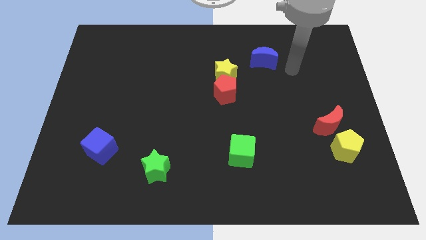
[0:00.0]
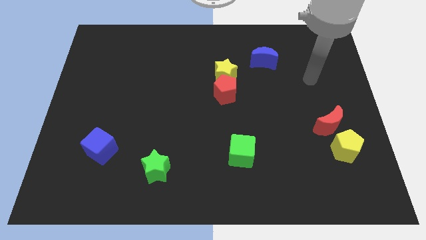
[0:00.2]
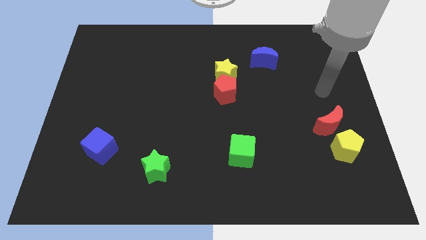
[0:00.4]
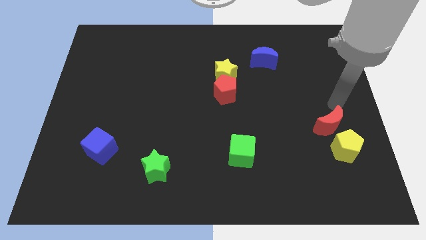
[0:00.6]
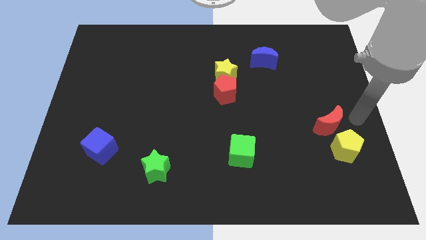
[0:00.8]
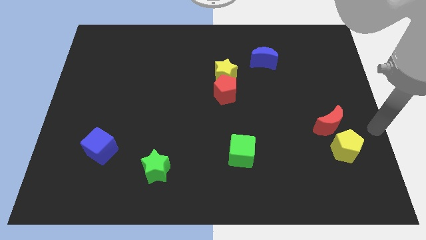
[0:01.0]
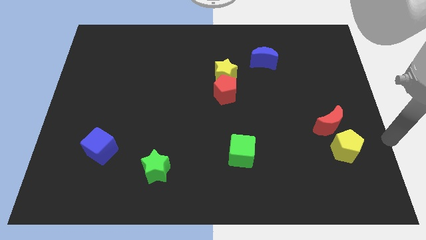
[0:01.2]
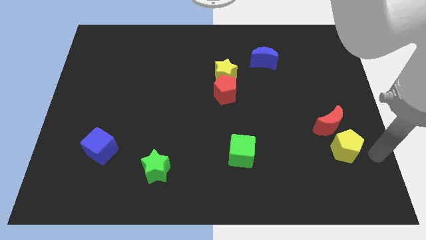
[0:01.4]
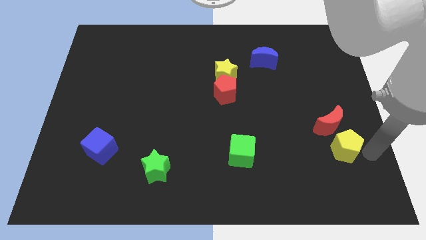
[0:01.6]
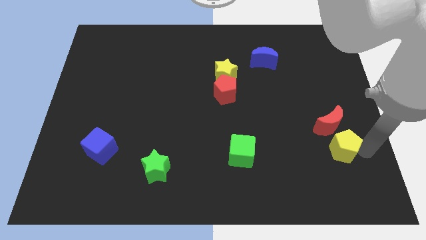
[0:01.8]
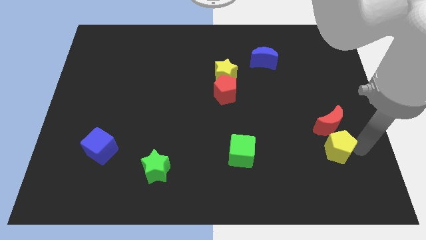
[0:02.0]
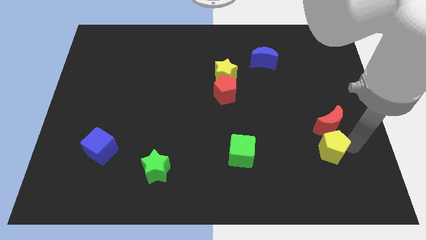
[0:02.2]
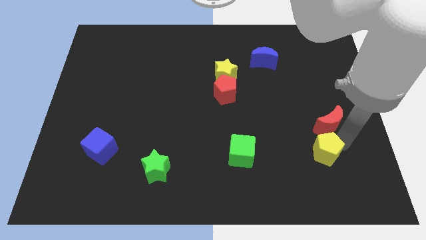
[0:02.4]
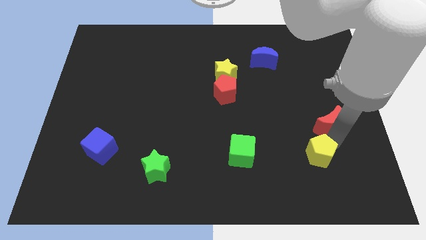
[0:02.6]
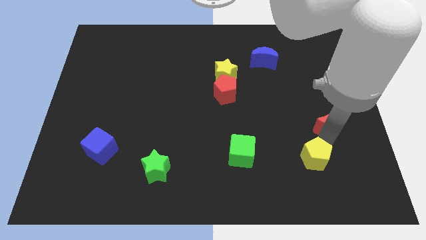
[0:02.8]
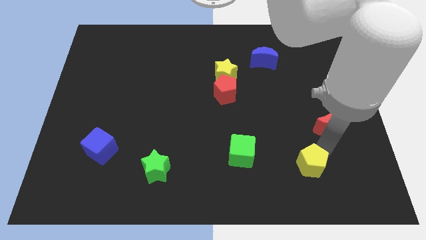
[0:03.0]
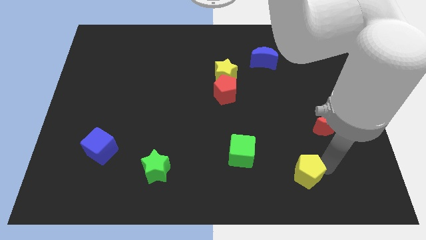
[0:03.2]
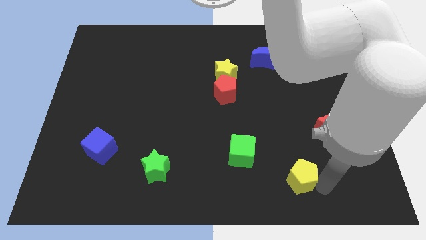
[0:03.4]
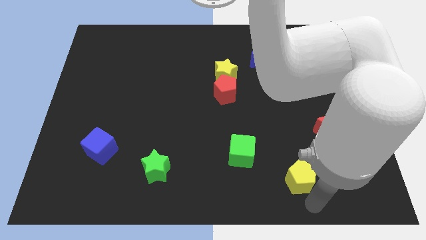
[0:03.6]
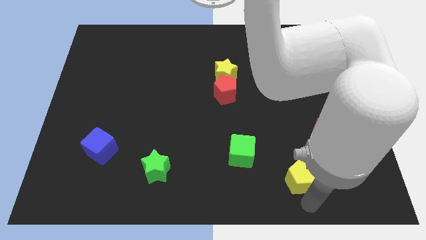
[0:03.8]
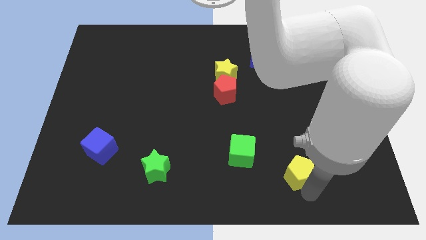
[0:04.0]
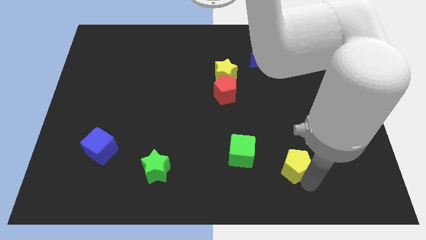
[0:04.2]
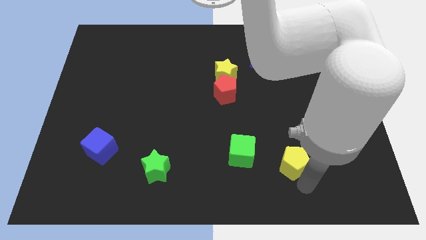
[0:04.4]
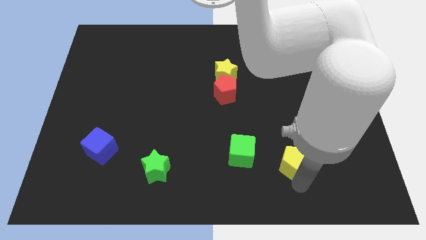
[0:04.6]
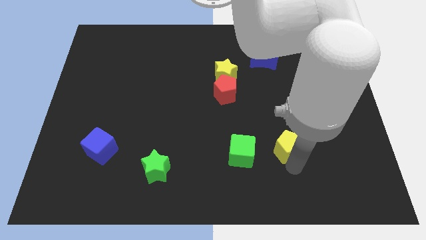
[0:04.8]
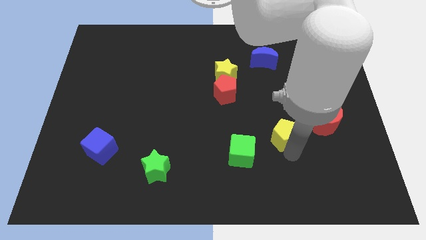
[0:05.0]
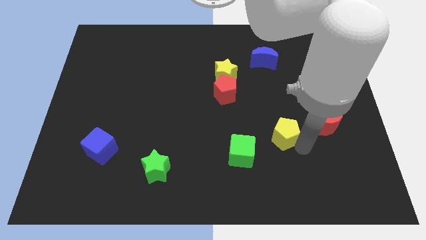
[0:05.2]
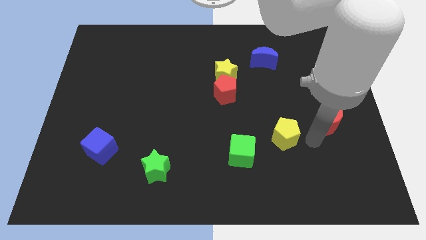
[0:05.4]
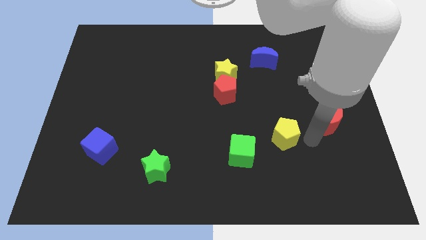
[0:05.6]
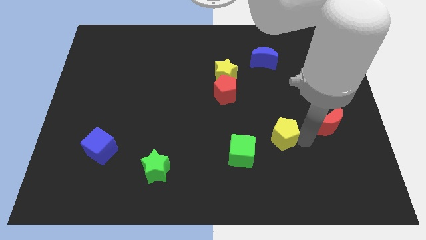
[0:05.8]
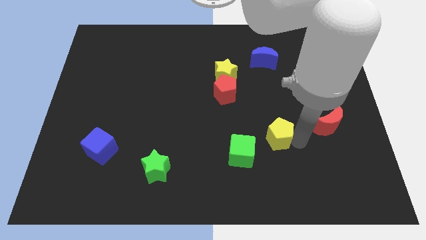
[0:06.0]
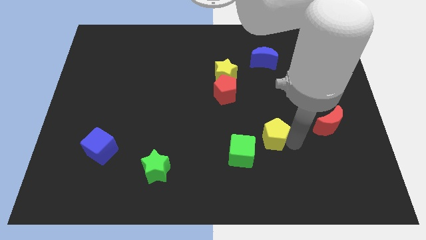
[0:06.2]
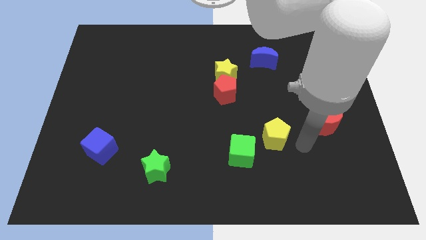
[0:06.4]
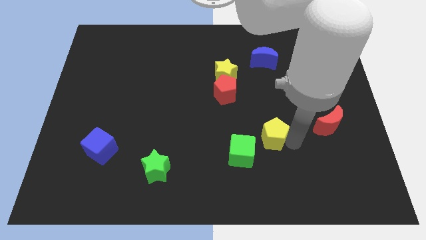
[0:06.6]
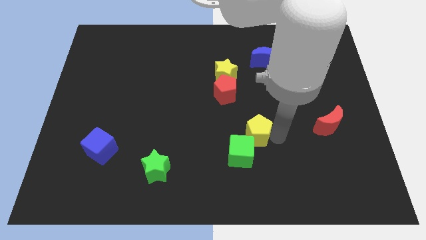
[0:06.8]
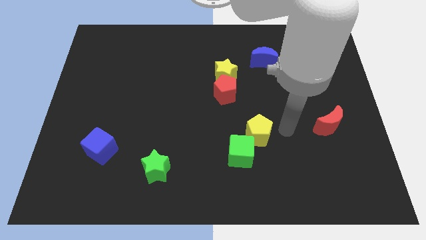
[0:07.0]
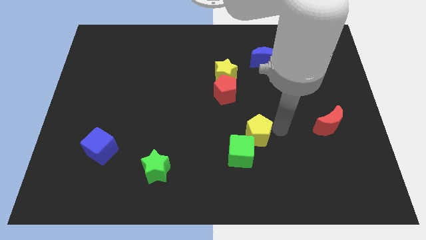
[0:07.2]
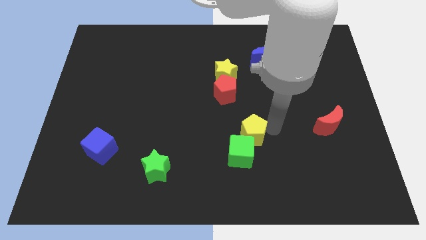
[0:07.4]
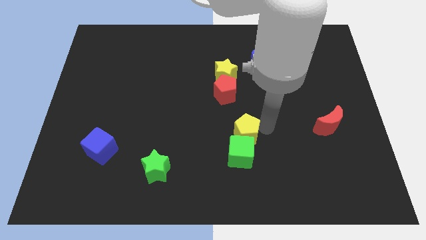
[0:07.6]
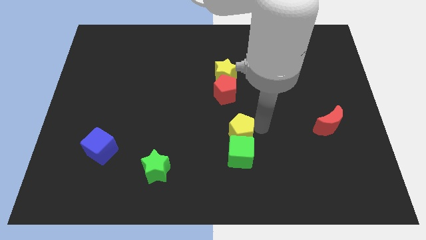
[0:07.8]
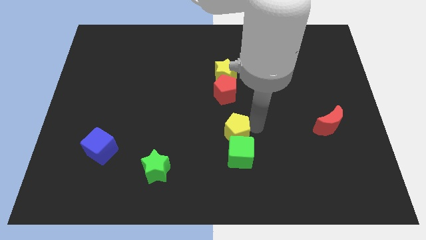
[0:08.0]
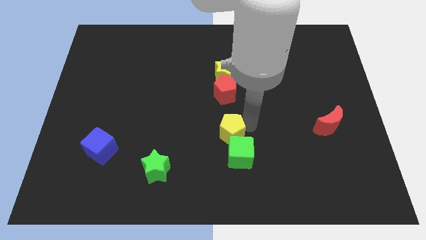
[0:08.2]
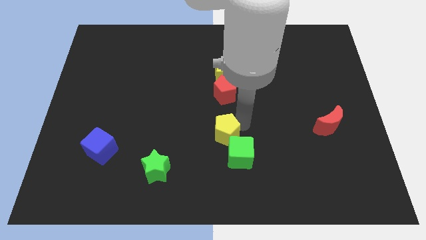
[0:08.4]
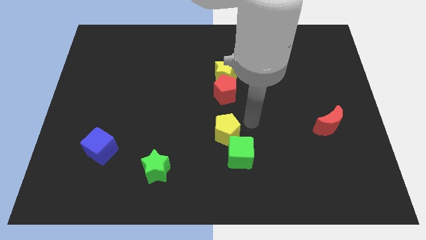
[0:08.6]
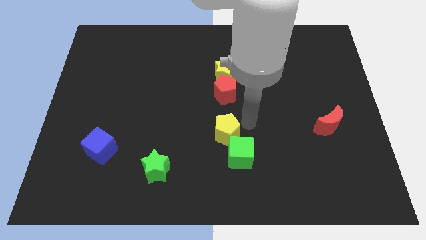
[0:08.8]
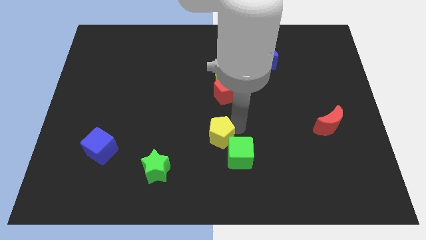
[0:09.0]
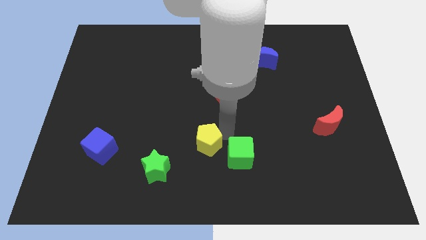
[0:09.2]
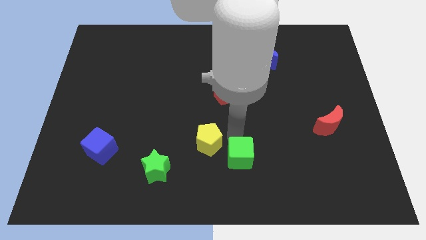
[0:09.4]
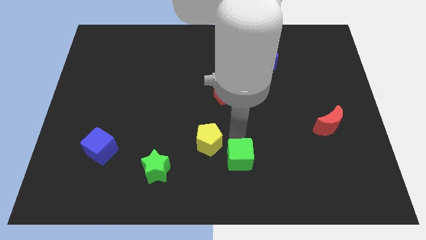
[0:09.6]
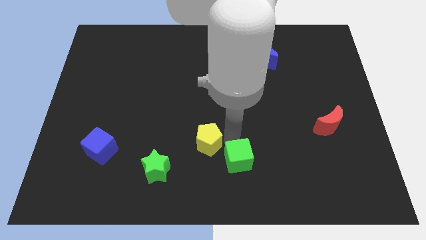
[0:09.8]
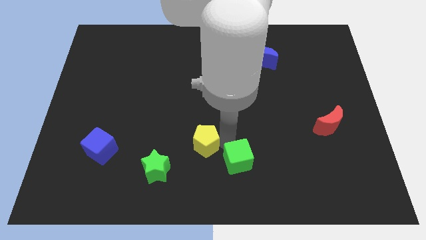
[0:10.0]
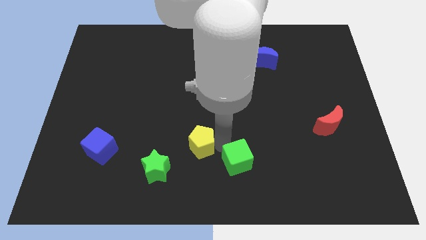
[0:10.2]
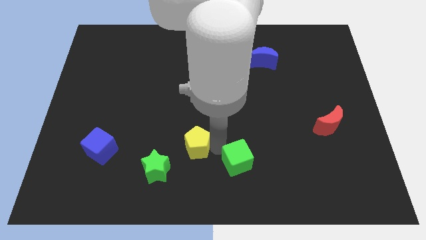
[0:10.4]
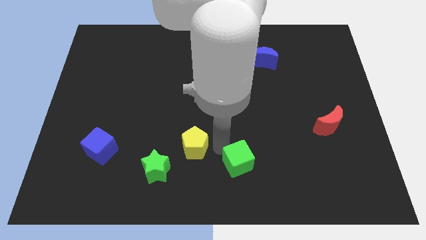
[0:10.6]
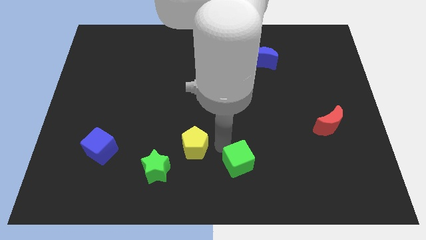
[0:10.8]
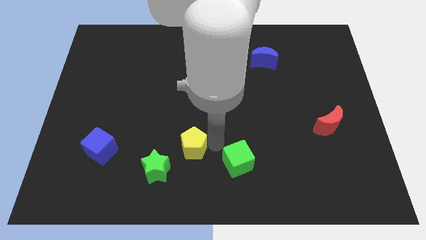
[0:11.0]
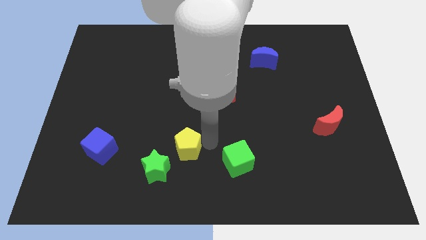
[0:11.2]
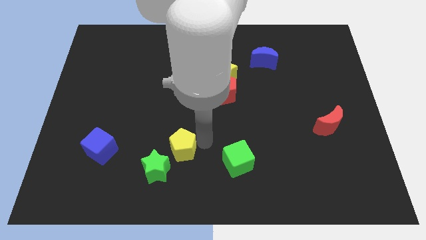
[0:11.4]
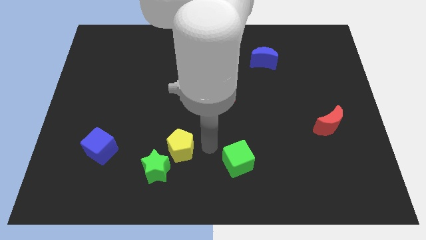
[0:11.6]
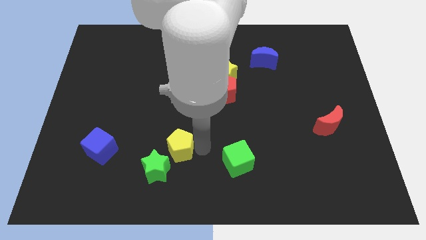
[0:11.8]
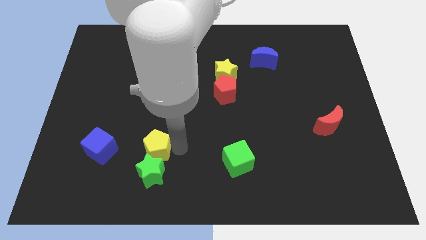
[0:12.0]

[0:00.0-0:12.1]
slide the yellow pentagon to the top left side of the green star

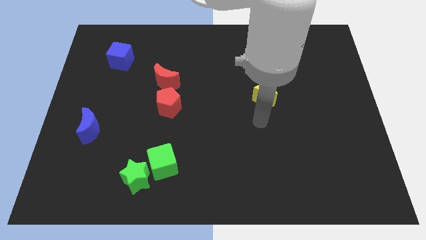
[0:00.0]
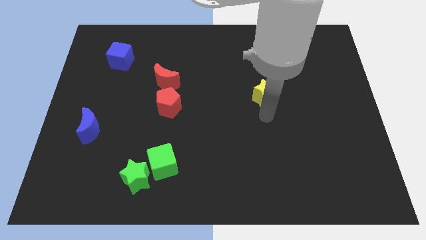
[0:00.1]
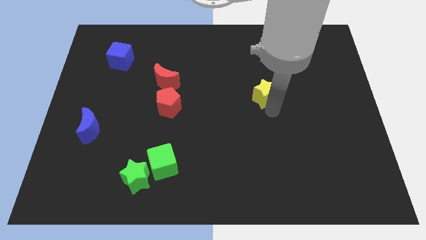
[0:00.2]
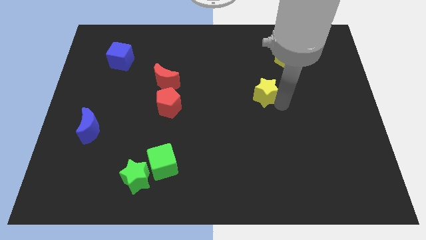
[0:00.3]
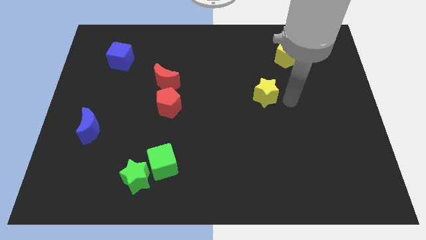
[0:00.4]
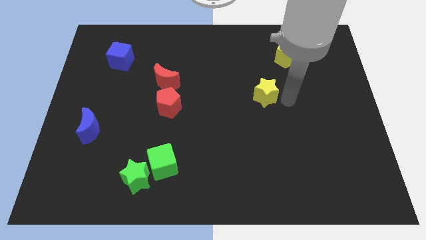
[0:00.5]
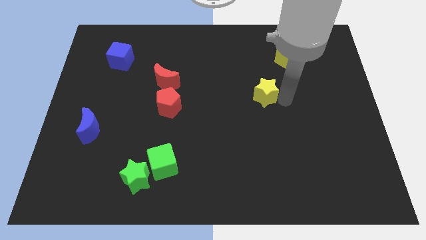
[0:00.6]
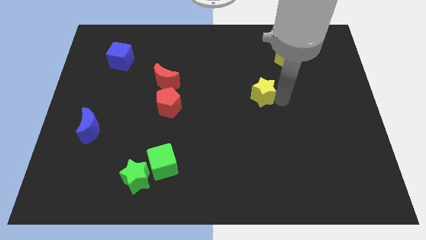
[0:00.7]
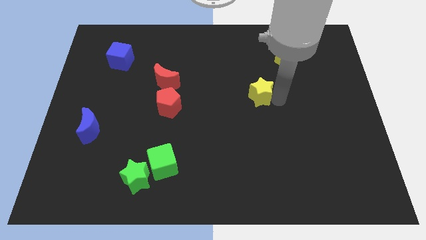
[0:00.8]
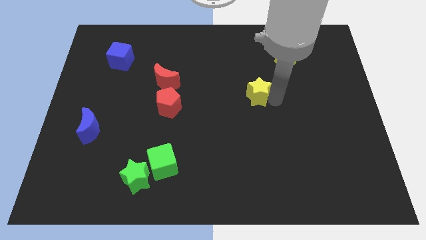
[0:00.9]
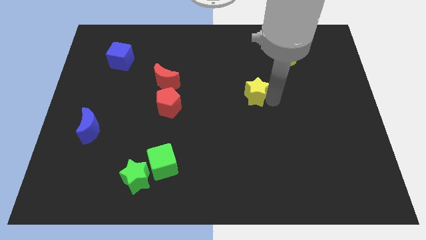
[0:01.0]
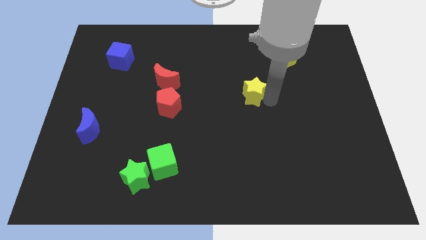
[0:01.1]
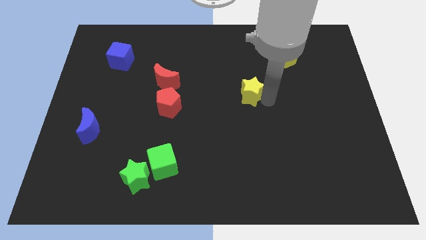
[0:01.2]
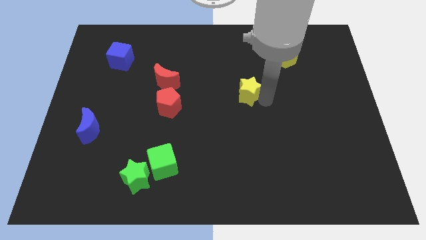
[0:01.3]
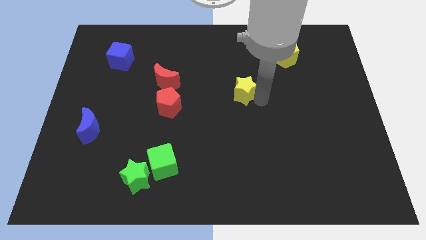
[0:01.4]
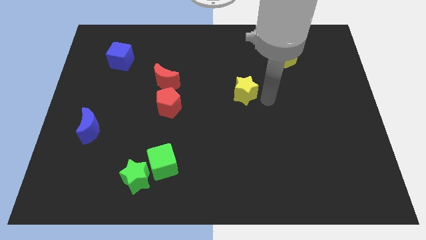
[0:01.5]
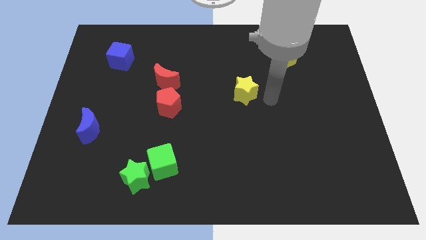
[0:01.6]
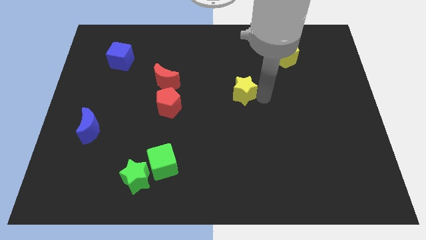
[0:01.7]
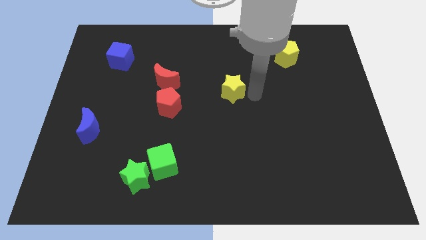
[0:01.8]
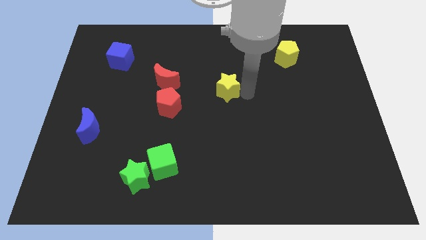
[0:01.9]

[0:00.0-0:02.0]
push the yellow star to the right side of the red moon
